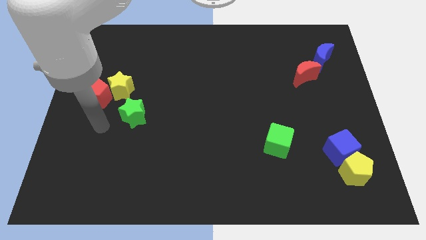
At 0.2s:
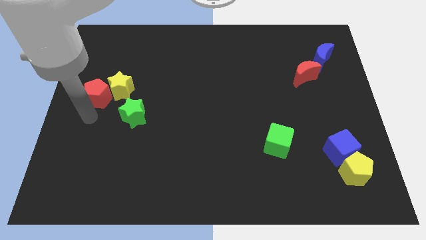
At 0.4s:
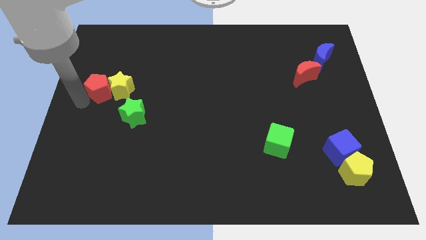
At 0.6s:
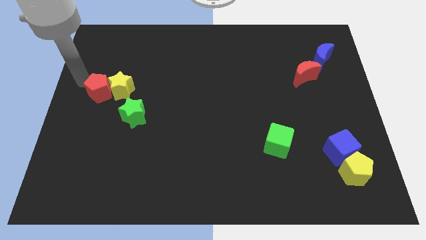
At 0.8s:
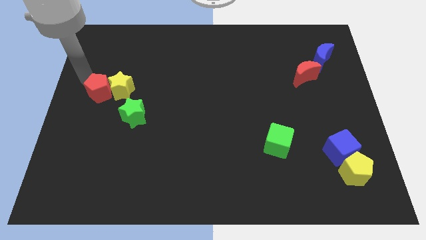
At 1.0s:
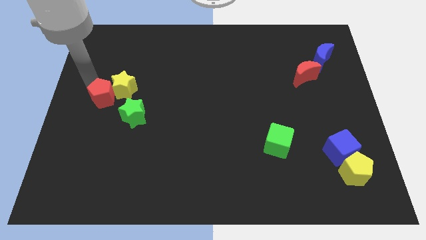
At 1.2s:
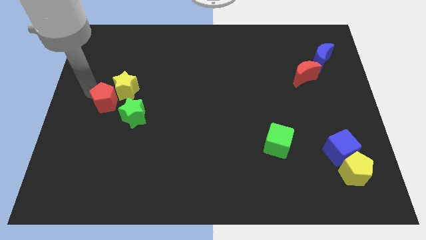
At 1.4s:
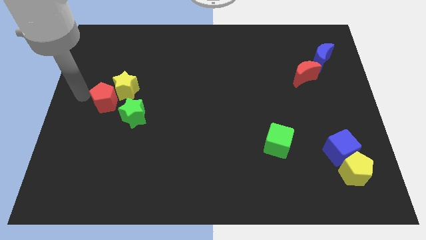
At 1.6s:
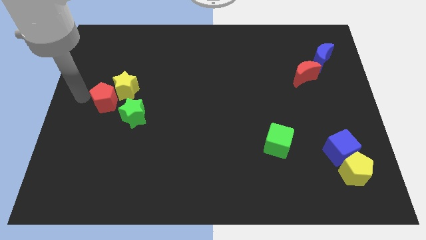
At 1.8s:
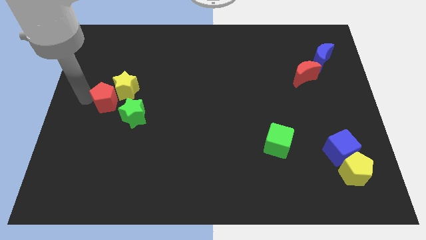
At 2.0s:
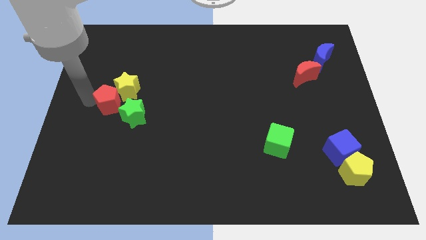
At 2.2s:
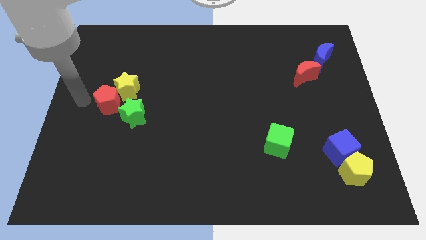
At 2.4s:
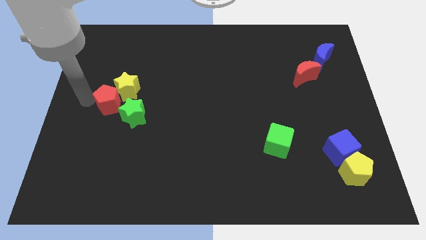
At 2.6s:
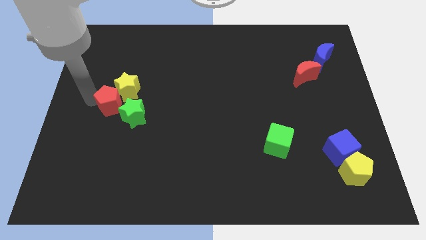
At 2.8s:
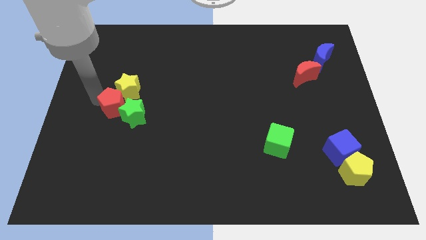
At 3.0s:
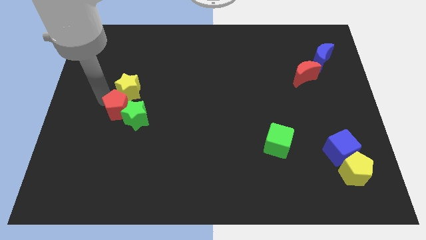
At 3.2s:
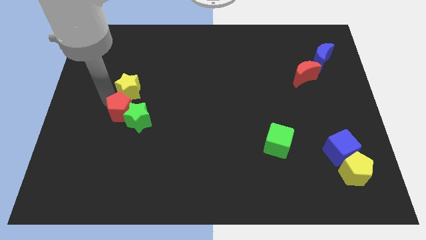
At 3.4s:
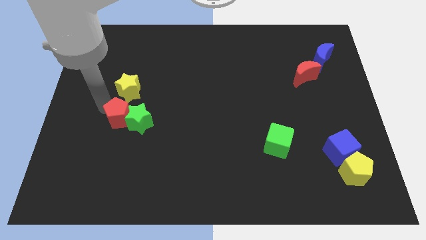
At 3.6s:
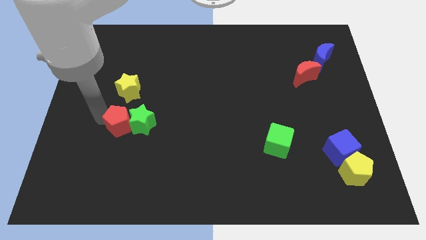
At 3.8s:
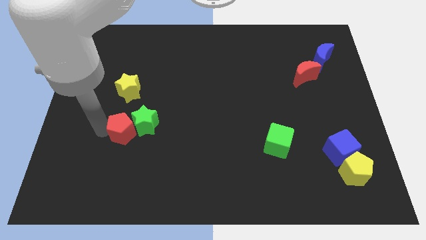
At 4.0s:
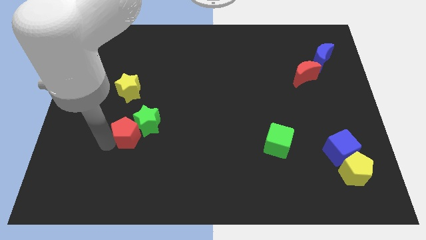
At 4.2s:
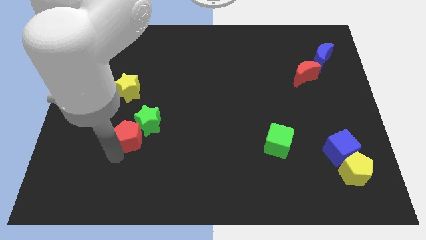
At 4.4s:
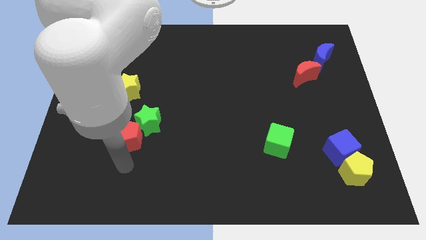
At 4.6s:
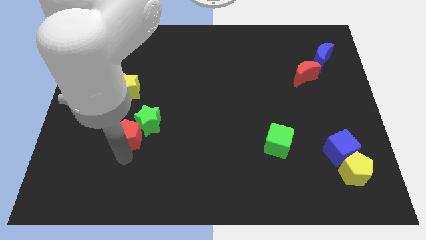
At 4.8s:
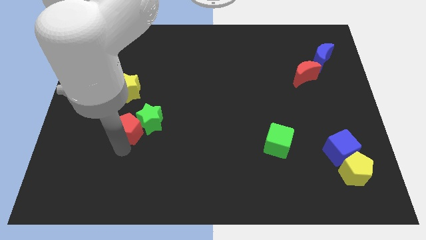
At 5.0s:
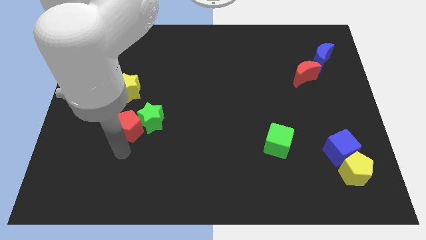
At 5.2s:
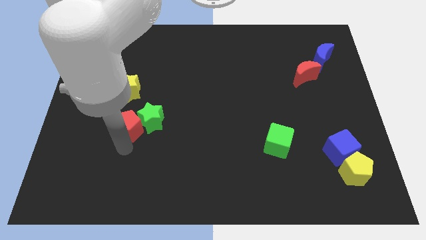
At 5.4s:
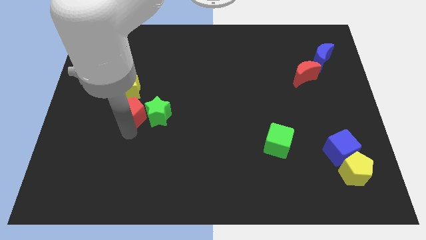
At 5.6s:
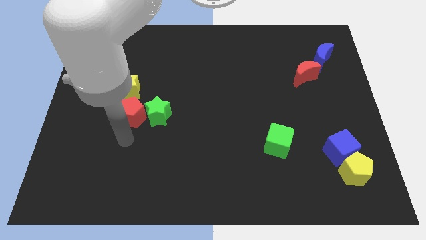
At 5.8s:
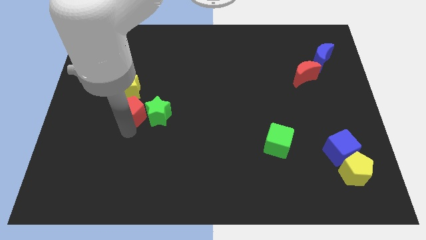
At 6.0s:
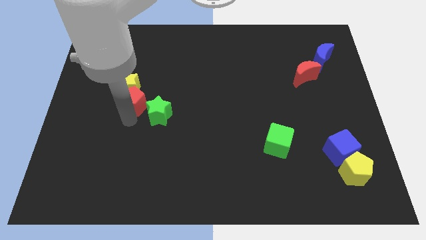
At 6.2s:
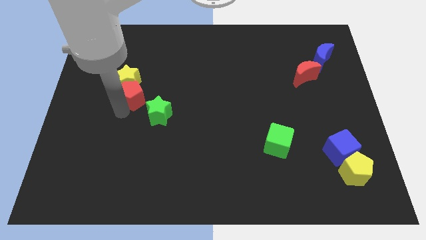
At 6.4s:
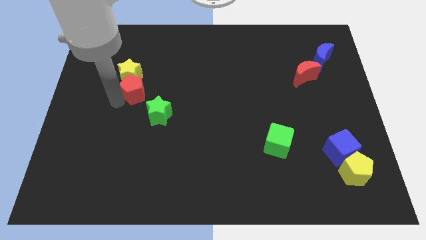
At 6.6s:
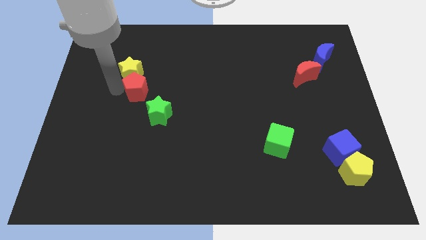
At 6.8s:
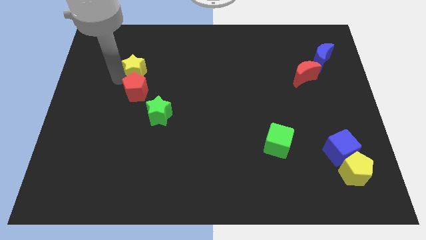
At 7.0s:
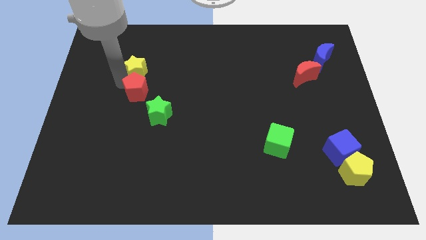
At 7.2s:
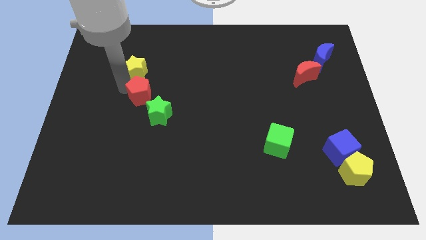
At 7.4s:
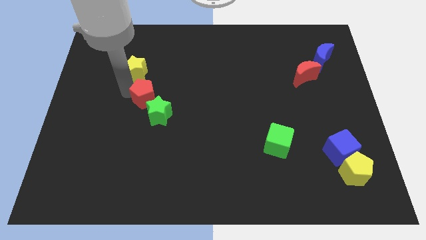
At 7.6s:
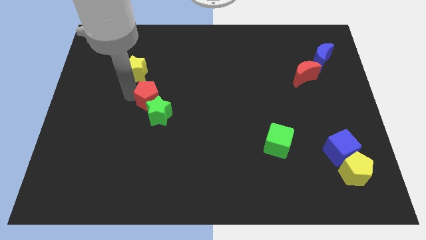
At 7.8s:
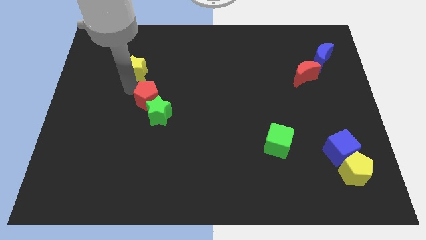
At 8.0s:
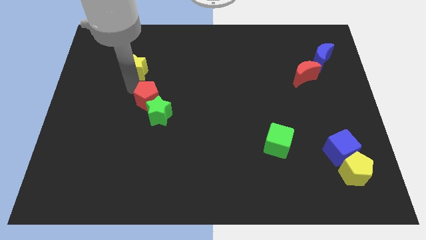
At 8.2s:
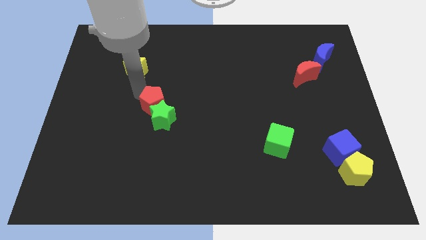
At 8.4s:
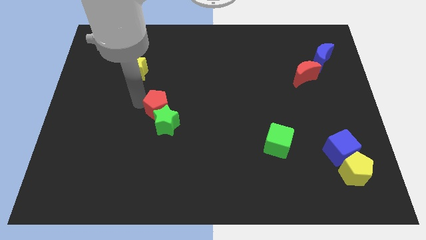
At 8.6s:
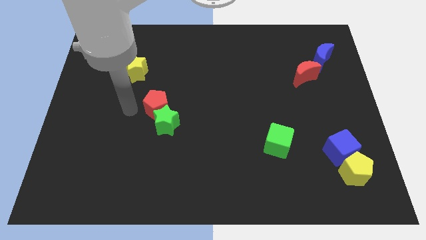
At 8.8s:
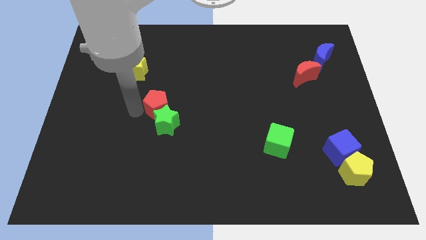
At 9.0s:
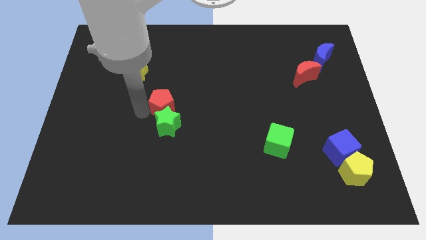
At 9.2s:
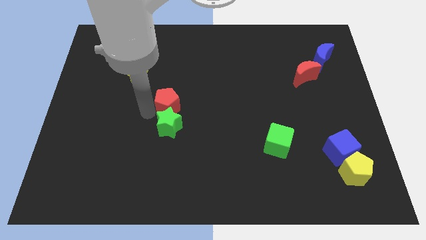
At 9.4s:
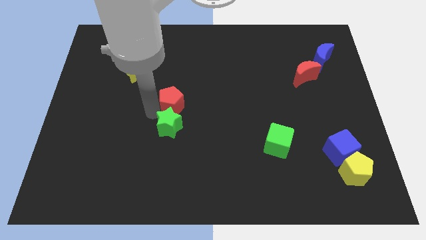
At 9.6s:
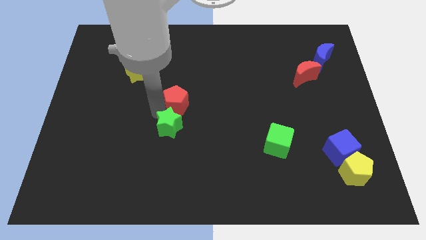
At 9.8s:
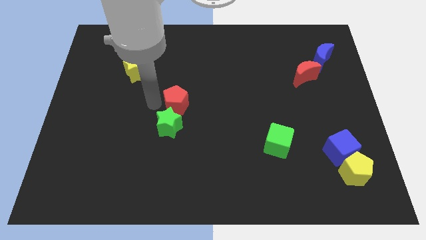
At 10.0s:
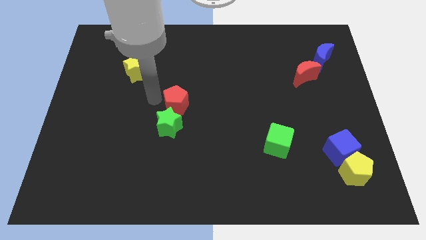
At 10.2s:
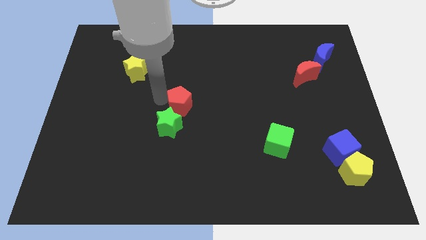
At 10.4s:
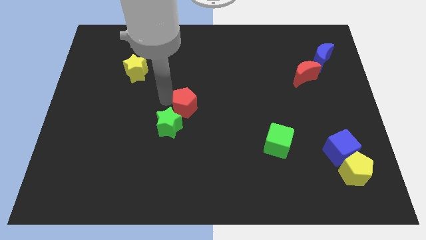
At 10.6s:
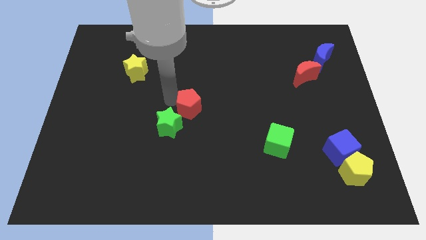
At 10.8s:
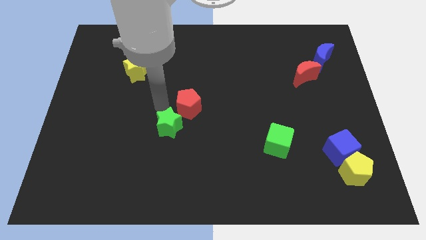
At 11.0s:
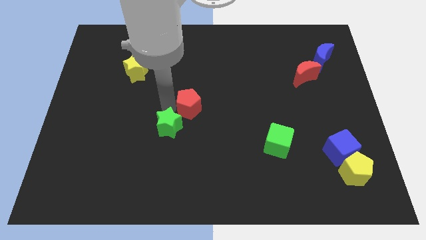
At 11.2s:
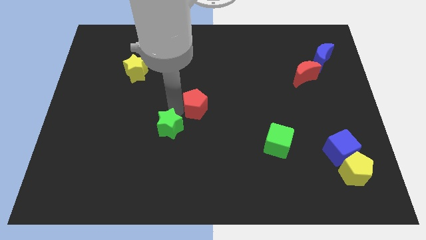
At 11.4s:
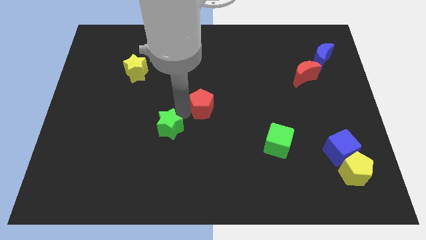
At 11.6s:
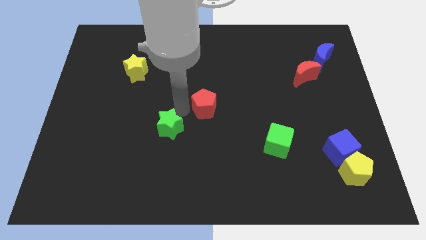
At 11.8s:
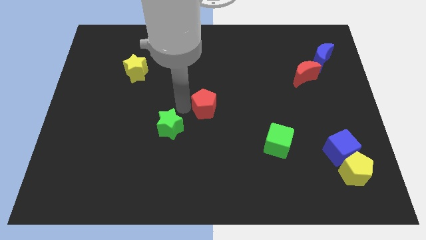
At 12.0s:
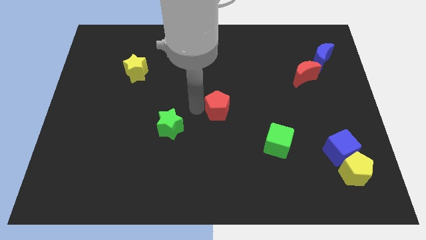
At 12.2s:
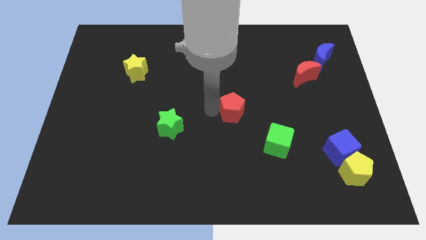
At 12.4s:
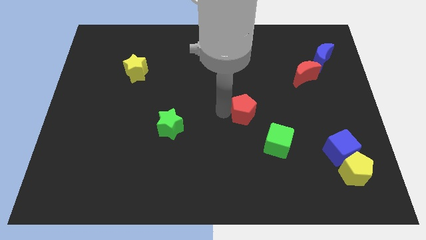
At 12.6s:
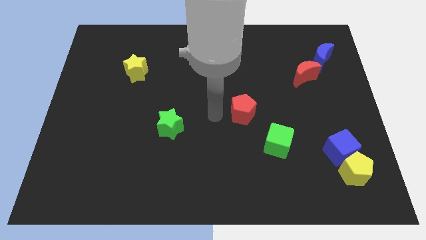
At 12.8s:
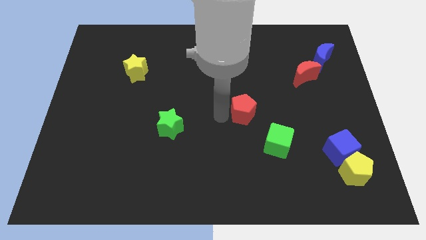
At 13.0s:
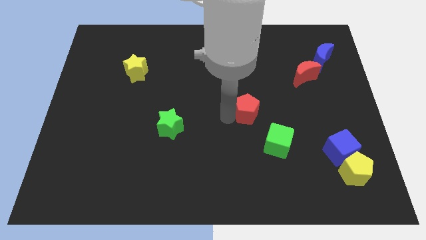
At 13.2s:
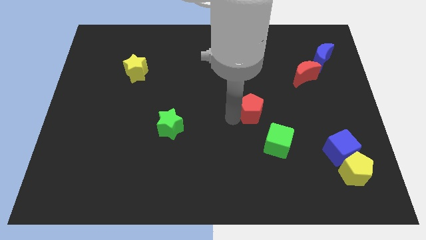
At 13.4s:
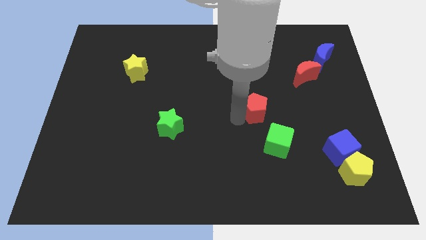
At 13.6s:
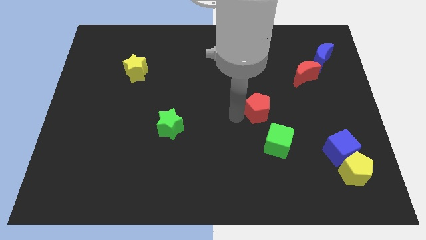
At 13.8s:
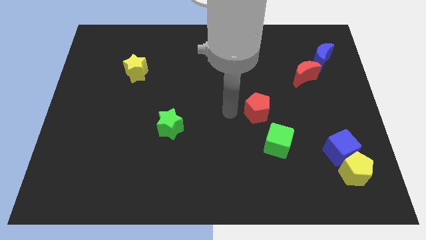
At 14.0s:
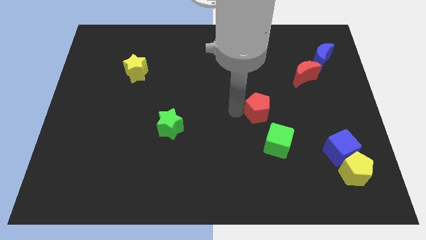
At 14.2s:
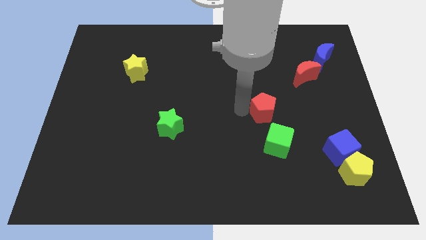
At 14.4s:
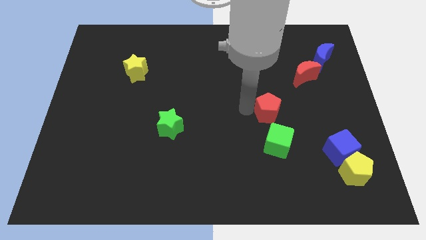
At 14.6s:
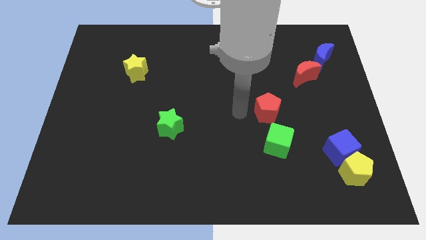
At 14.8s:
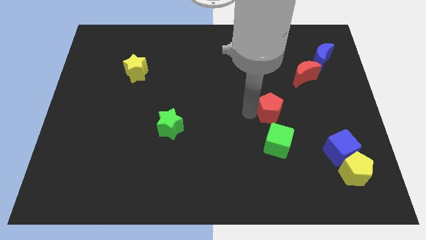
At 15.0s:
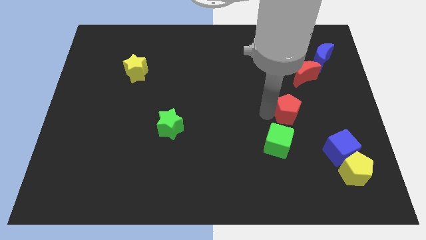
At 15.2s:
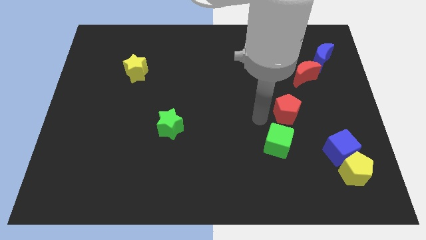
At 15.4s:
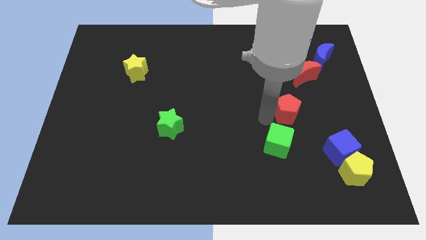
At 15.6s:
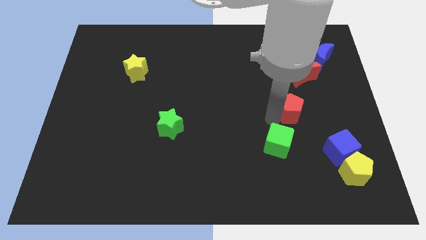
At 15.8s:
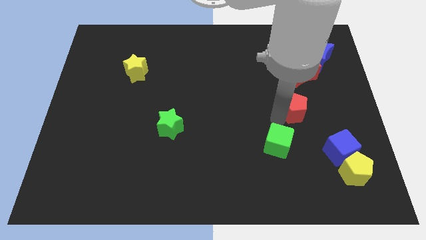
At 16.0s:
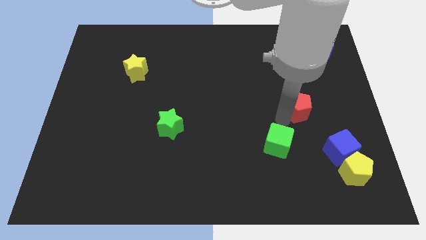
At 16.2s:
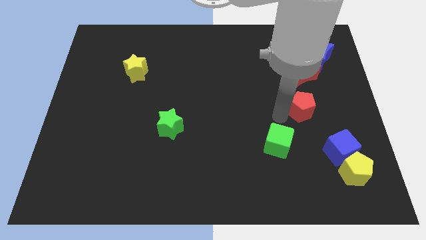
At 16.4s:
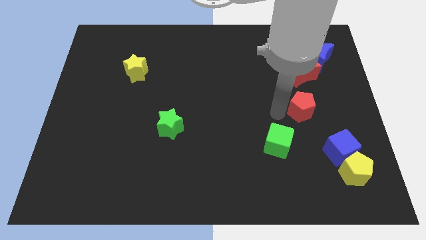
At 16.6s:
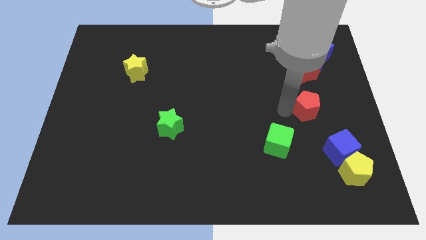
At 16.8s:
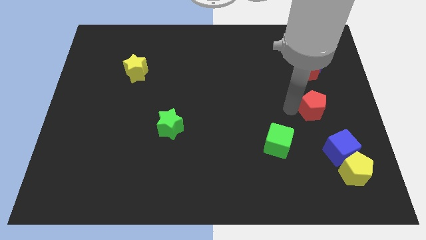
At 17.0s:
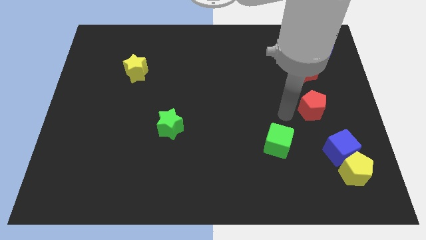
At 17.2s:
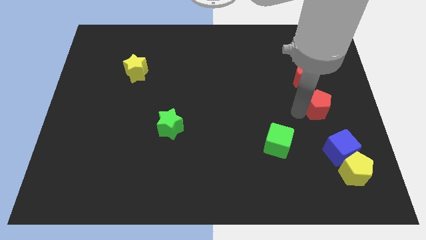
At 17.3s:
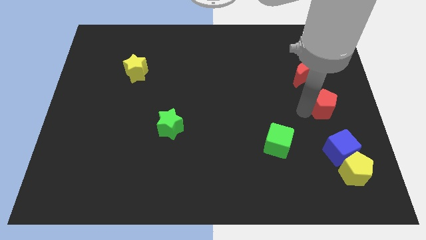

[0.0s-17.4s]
push the red pentagon to the right side of the board
